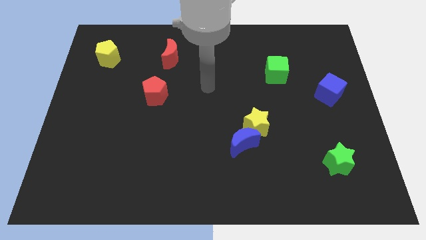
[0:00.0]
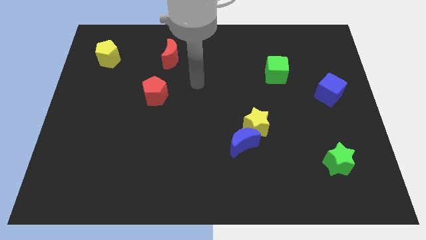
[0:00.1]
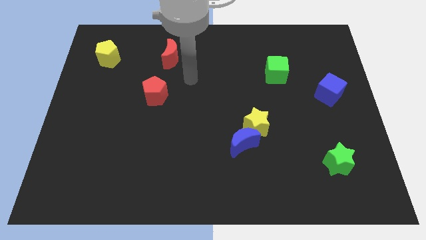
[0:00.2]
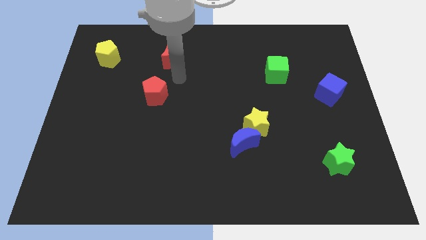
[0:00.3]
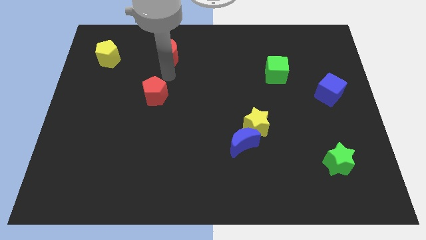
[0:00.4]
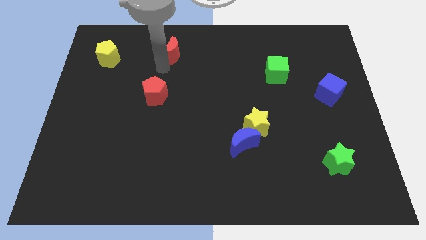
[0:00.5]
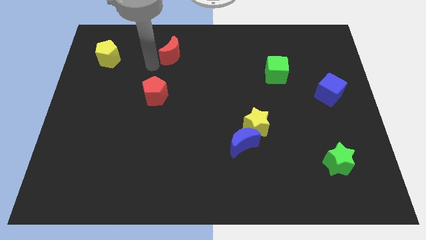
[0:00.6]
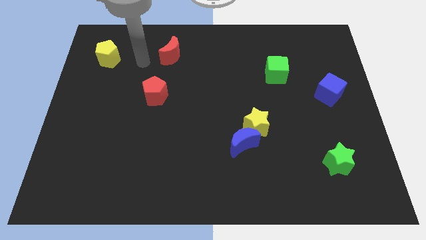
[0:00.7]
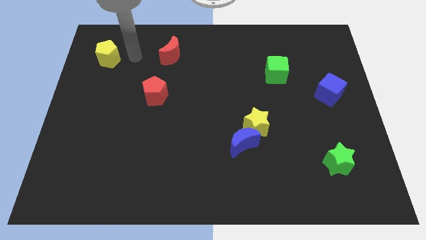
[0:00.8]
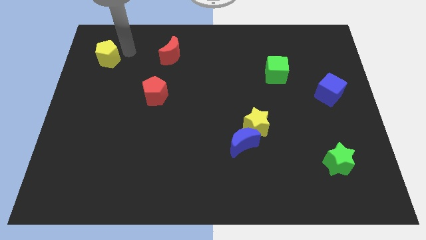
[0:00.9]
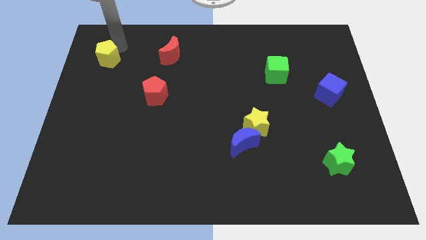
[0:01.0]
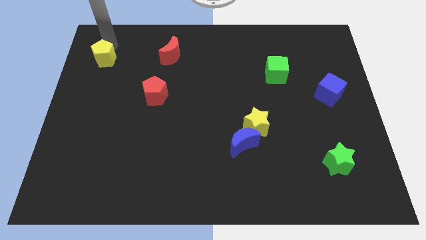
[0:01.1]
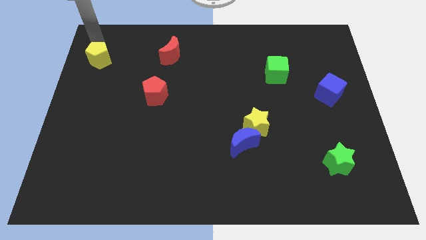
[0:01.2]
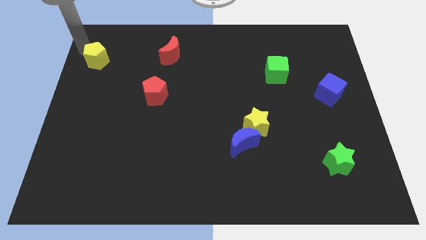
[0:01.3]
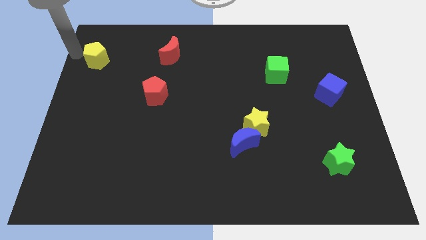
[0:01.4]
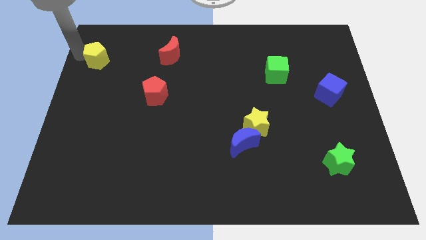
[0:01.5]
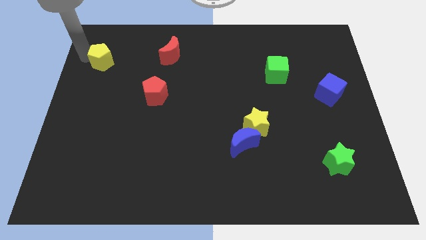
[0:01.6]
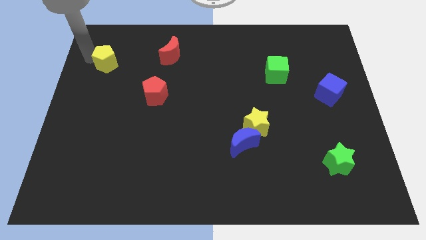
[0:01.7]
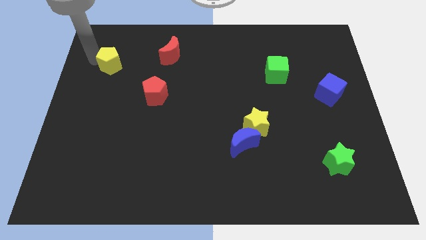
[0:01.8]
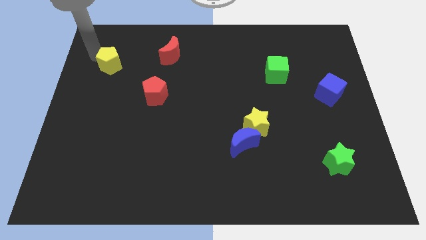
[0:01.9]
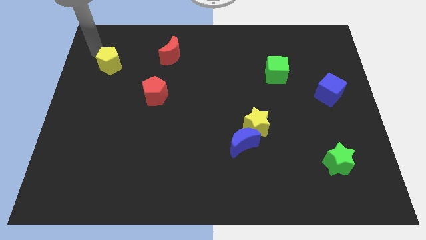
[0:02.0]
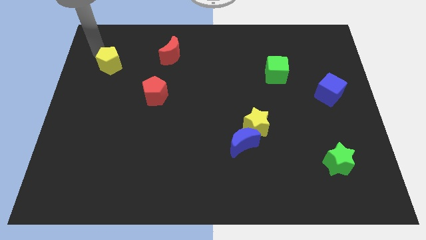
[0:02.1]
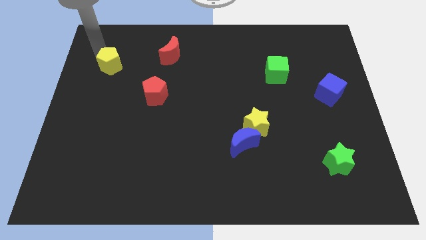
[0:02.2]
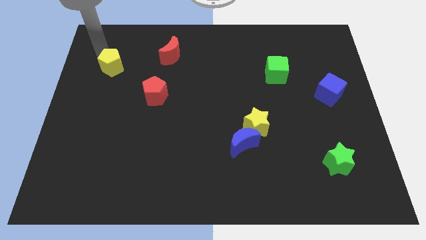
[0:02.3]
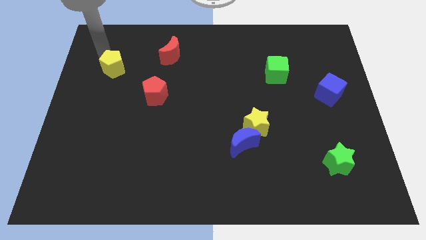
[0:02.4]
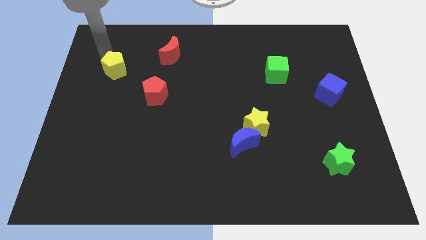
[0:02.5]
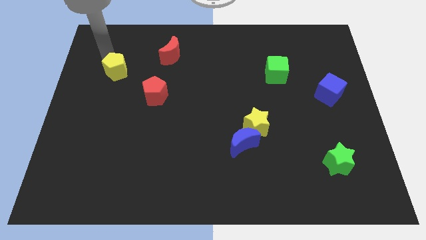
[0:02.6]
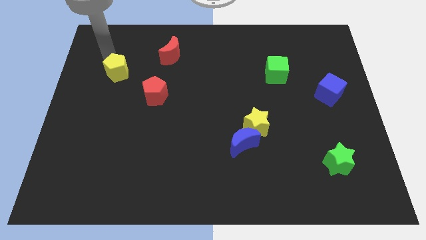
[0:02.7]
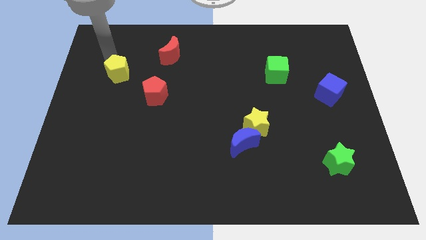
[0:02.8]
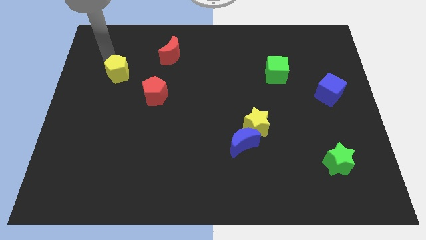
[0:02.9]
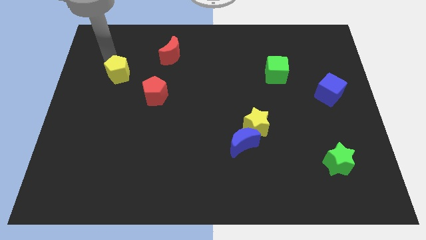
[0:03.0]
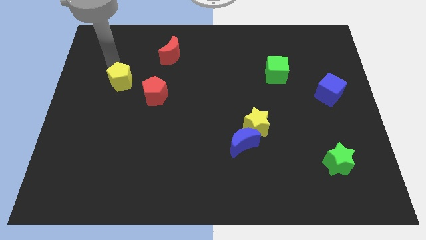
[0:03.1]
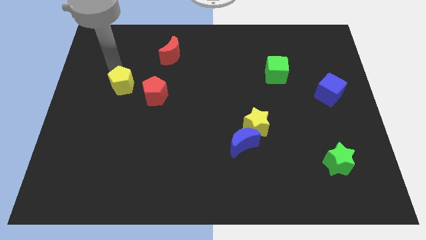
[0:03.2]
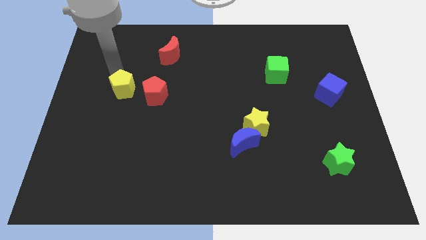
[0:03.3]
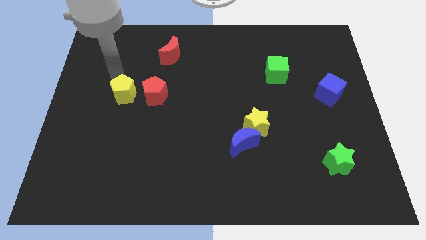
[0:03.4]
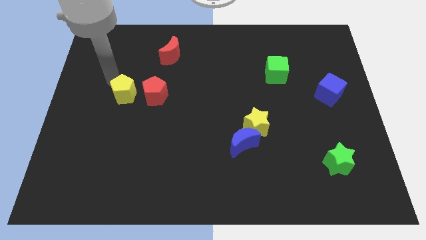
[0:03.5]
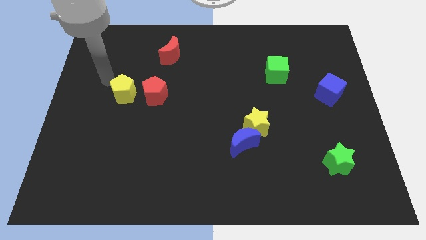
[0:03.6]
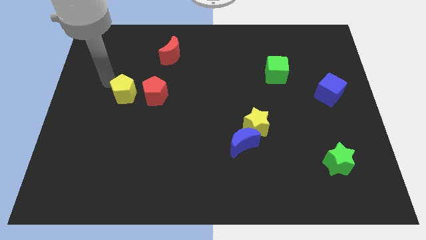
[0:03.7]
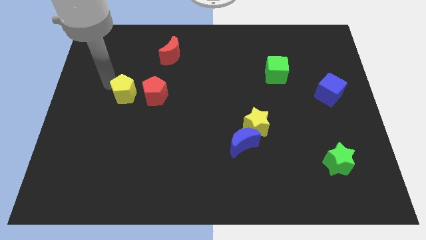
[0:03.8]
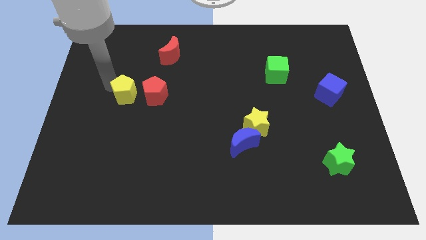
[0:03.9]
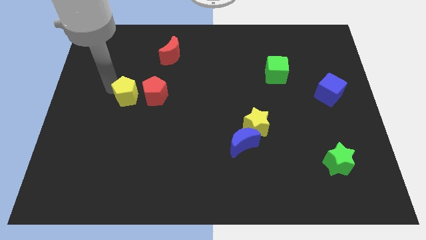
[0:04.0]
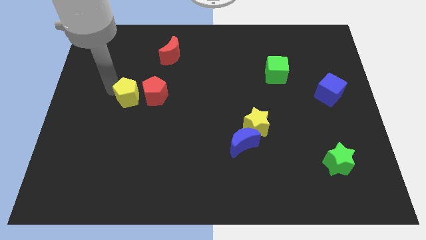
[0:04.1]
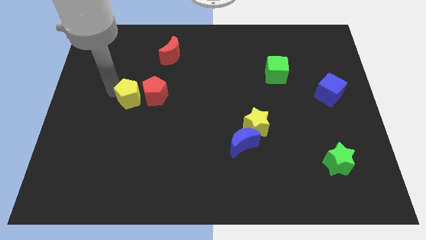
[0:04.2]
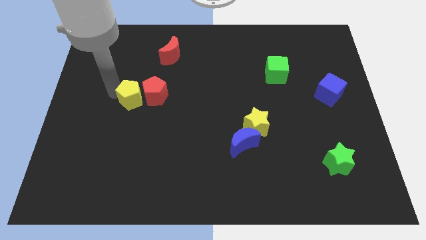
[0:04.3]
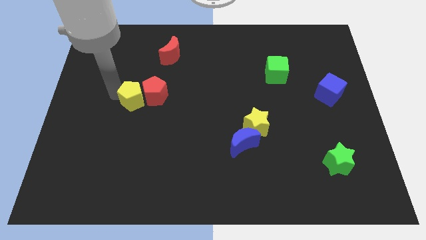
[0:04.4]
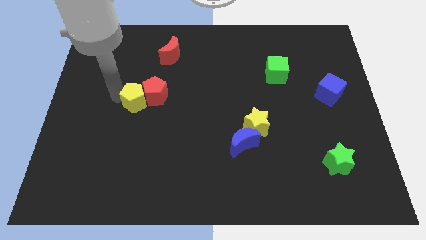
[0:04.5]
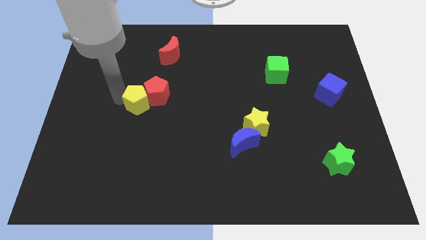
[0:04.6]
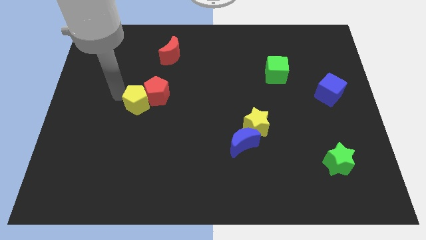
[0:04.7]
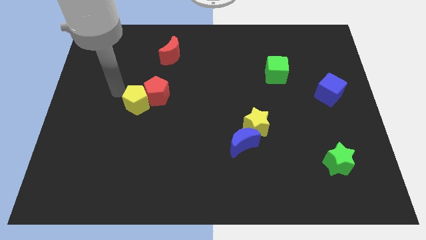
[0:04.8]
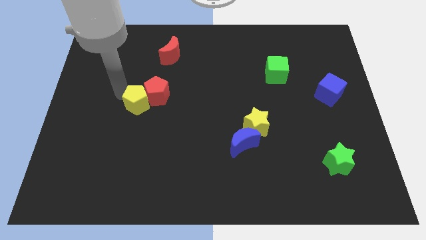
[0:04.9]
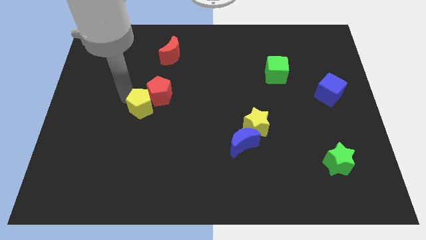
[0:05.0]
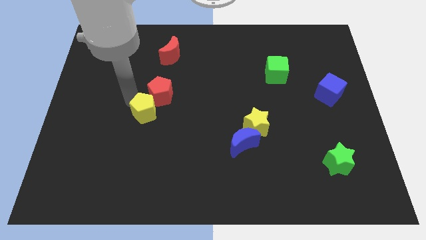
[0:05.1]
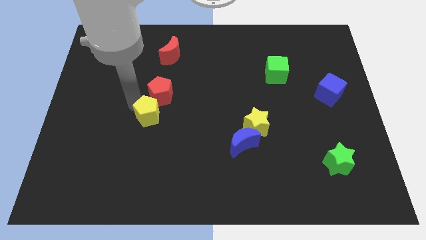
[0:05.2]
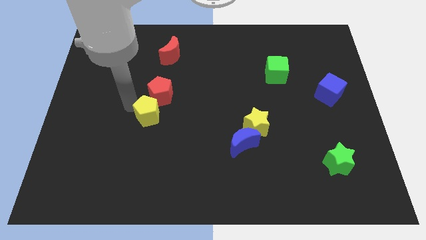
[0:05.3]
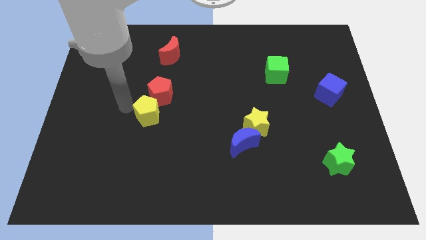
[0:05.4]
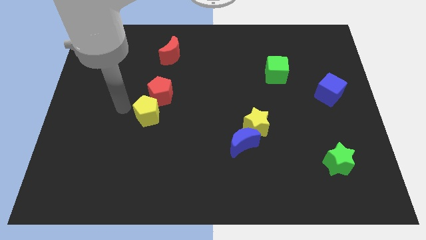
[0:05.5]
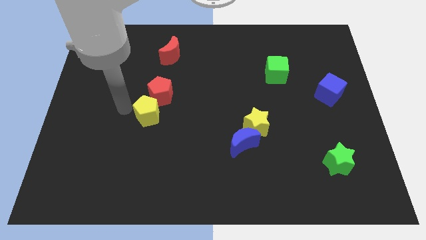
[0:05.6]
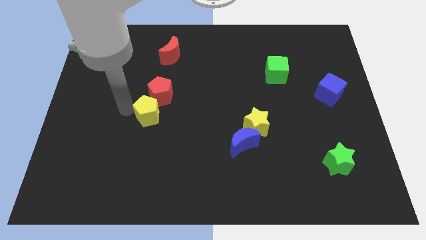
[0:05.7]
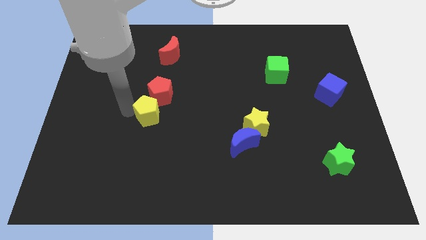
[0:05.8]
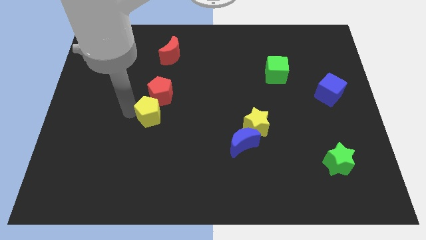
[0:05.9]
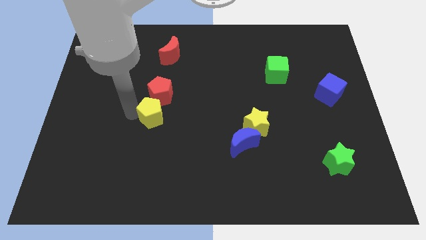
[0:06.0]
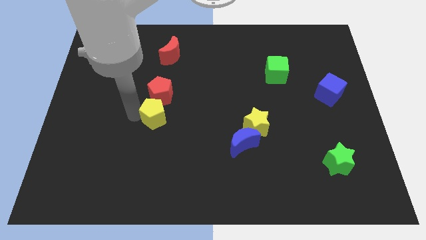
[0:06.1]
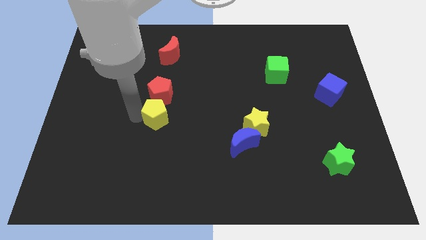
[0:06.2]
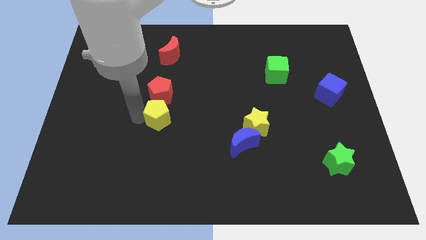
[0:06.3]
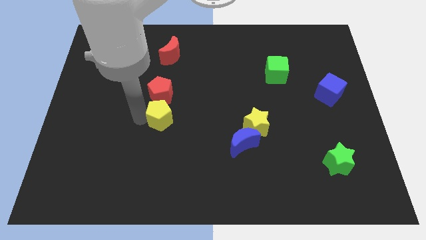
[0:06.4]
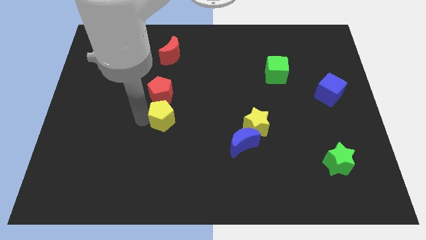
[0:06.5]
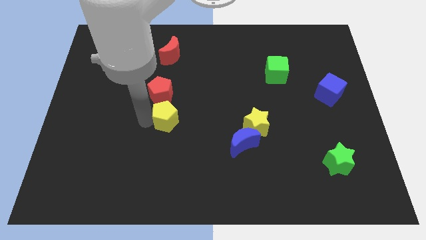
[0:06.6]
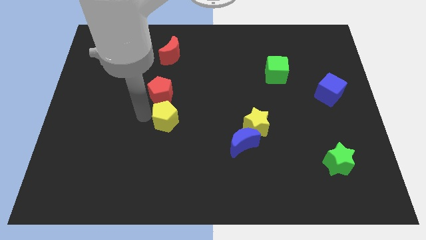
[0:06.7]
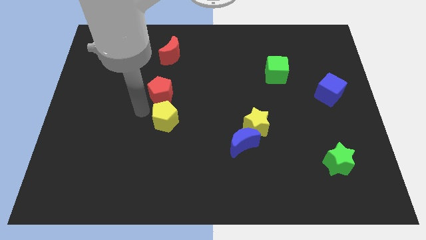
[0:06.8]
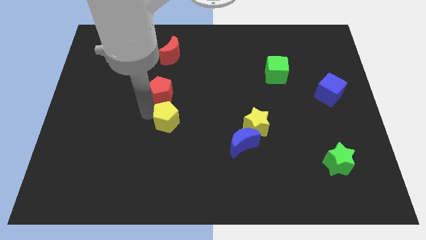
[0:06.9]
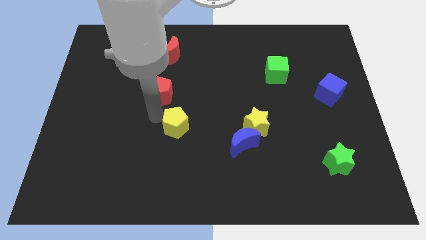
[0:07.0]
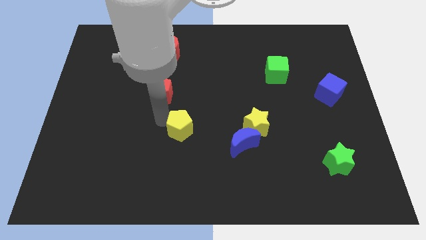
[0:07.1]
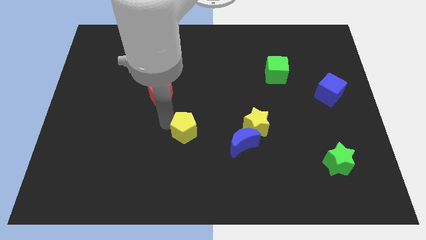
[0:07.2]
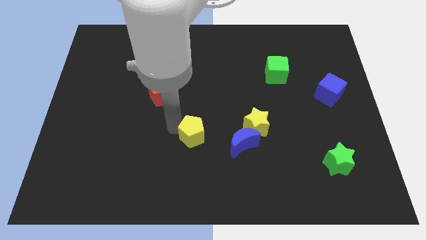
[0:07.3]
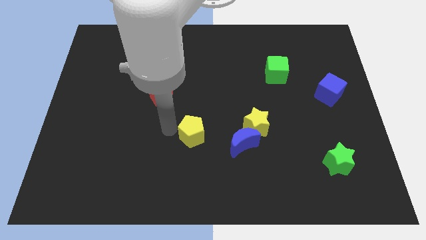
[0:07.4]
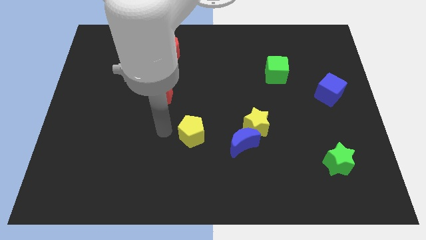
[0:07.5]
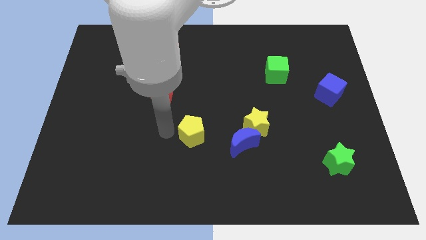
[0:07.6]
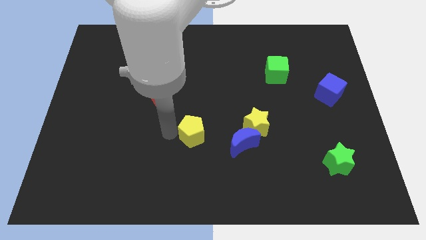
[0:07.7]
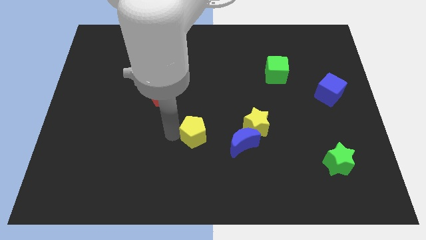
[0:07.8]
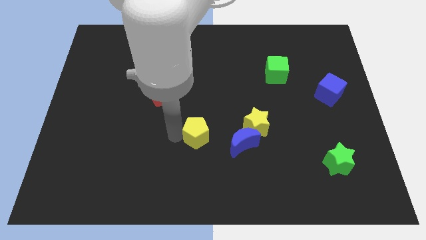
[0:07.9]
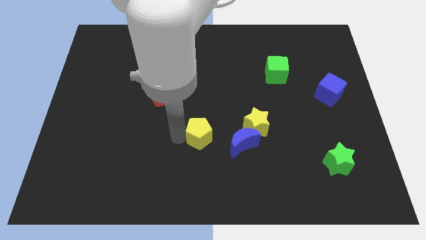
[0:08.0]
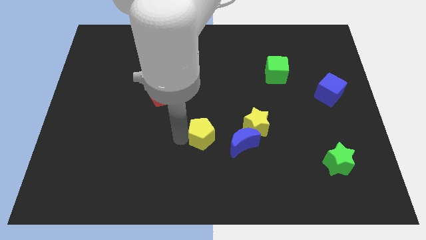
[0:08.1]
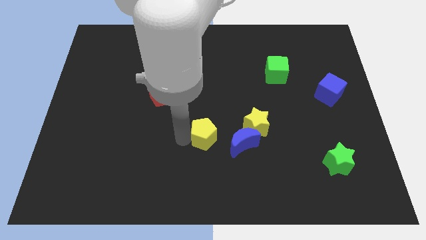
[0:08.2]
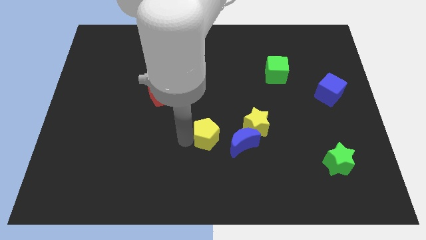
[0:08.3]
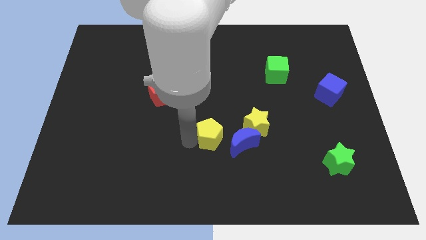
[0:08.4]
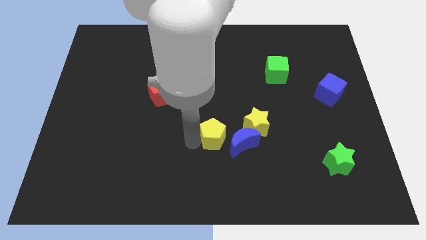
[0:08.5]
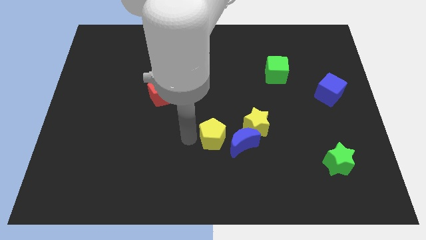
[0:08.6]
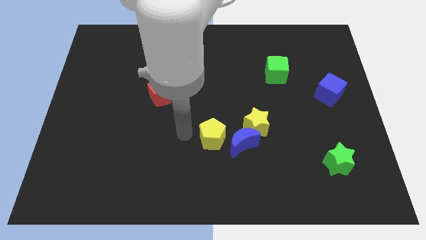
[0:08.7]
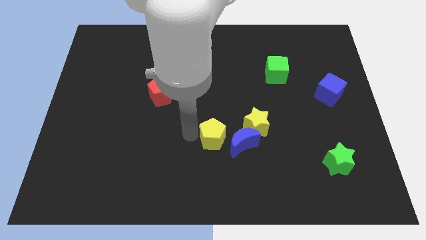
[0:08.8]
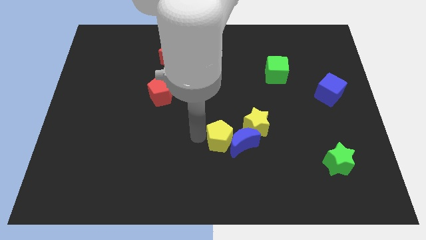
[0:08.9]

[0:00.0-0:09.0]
move the yellow pentagon towards the blue moon
